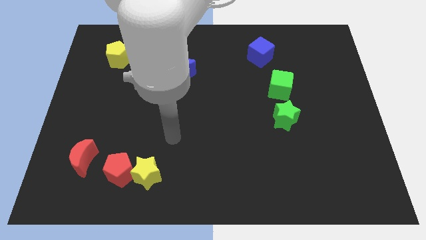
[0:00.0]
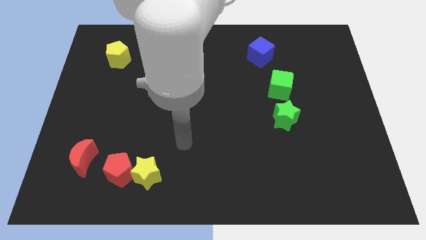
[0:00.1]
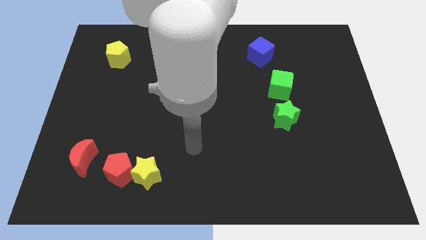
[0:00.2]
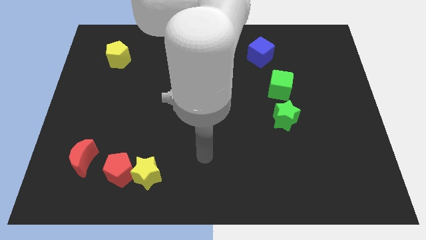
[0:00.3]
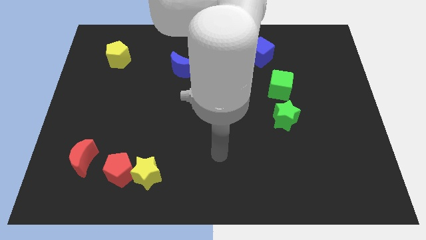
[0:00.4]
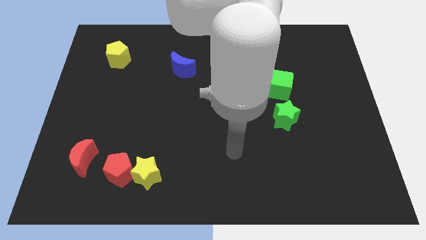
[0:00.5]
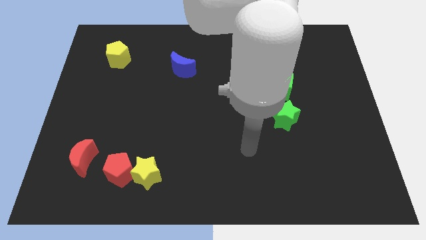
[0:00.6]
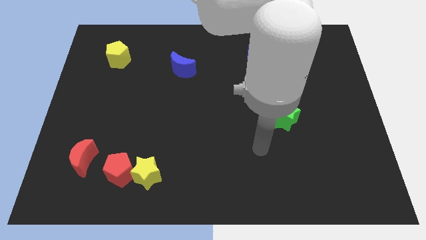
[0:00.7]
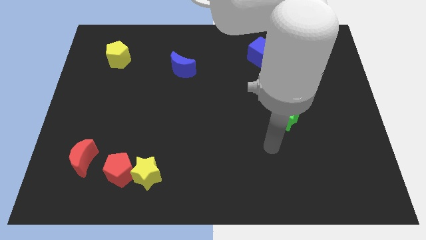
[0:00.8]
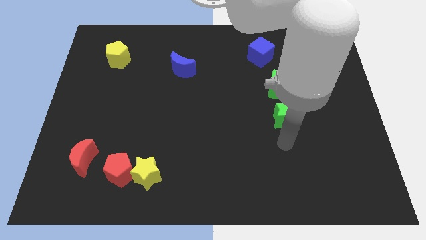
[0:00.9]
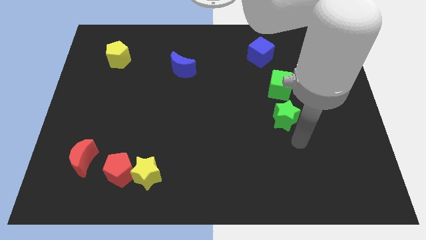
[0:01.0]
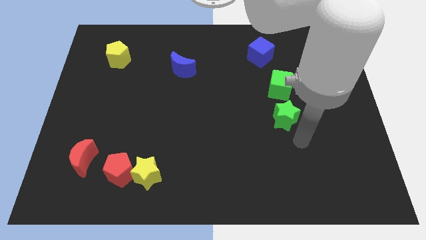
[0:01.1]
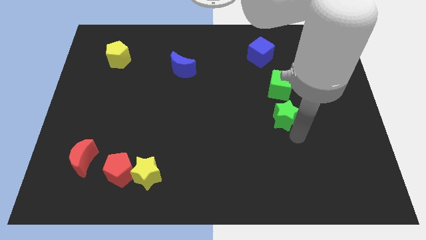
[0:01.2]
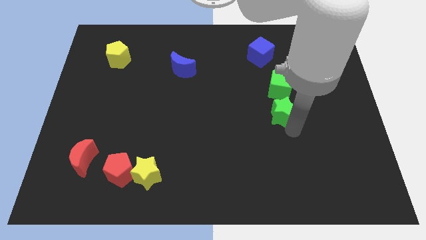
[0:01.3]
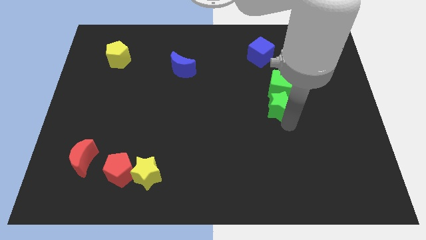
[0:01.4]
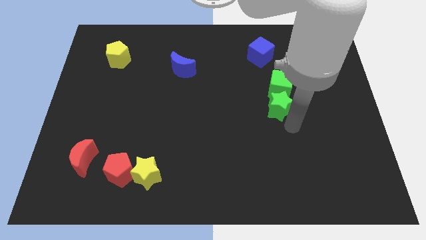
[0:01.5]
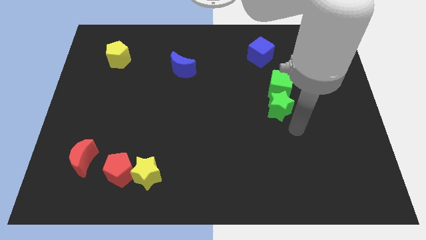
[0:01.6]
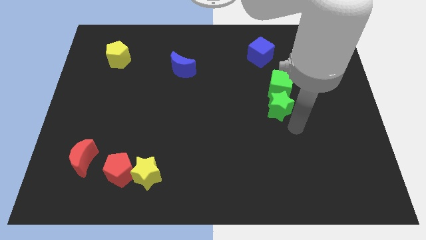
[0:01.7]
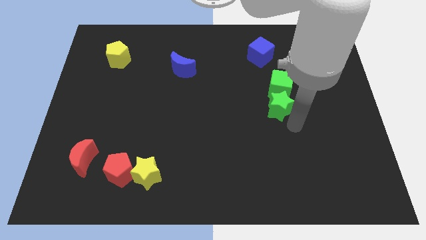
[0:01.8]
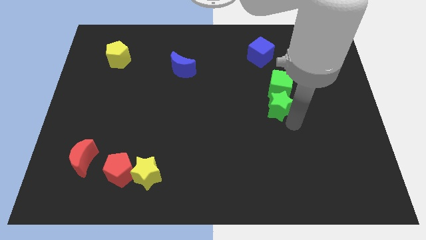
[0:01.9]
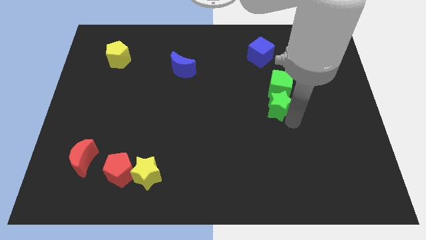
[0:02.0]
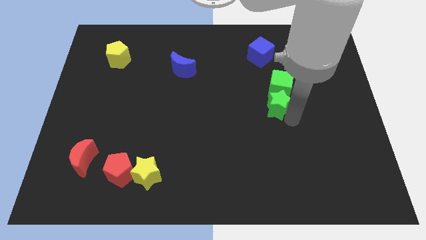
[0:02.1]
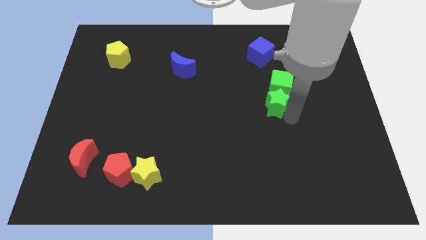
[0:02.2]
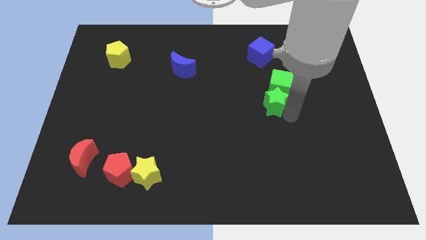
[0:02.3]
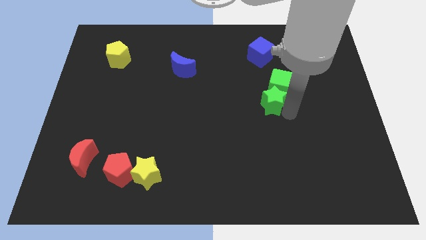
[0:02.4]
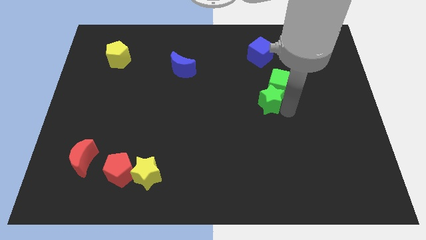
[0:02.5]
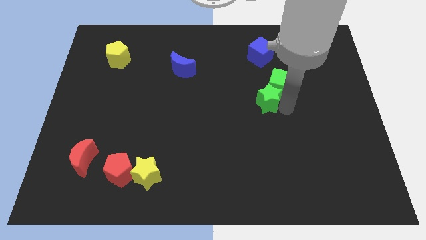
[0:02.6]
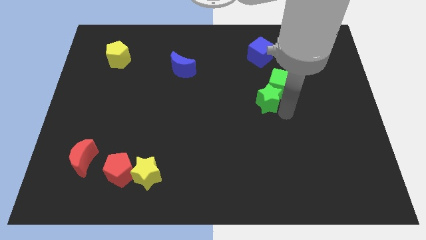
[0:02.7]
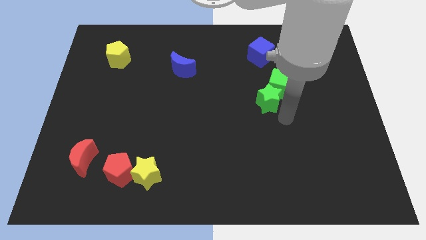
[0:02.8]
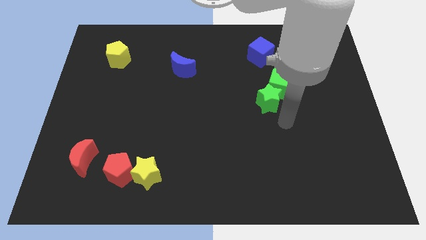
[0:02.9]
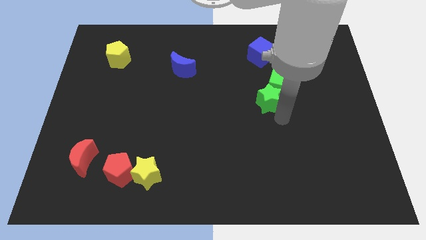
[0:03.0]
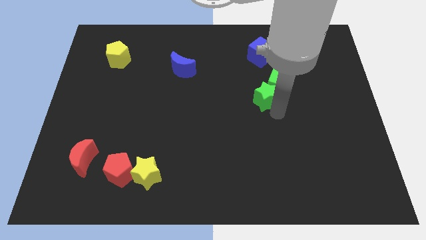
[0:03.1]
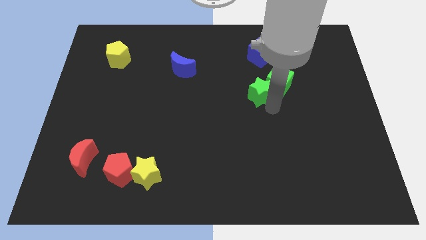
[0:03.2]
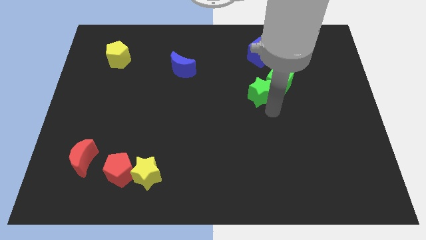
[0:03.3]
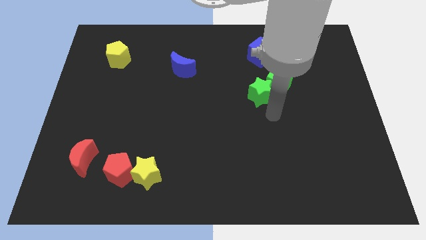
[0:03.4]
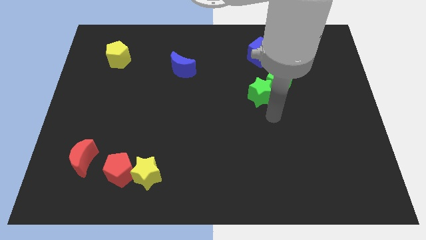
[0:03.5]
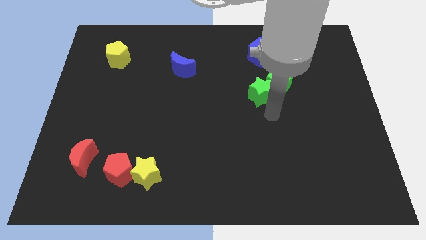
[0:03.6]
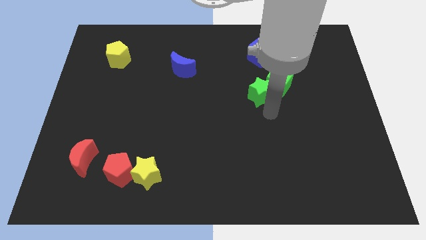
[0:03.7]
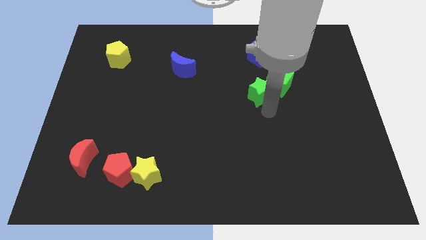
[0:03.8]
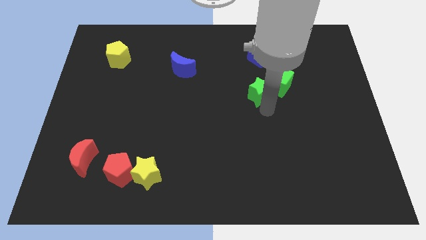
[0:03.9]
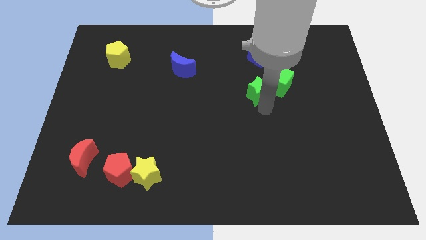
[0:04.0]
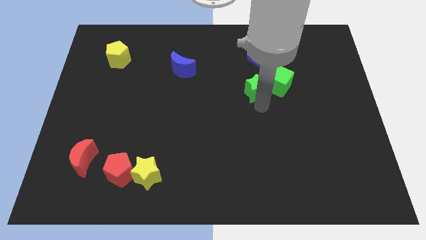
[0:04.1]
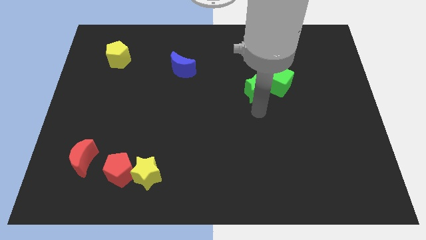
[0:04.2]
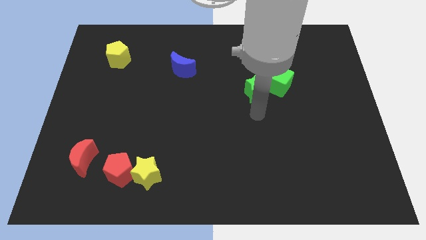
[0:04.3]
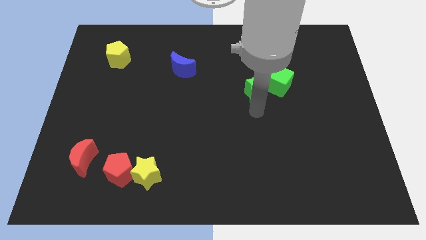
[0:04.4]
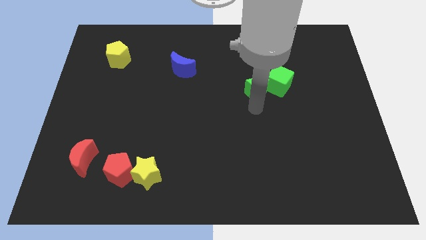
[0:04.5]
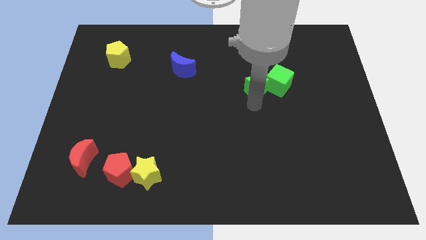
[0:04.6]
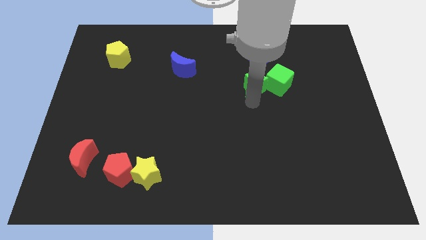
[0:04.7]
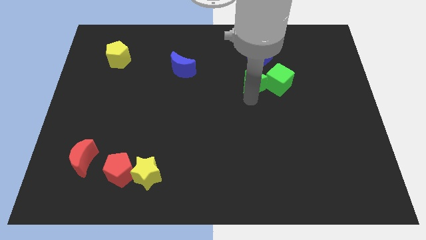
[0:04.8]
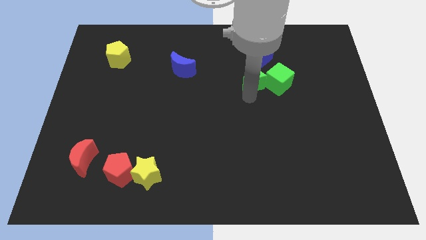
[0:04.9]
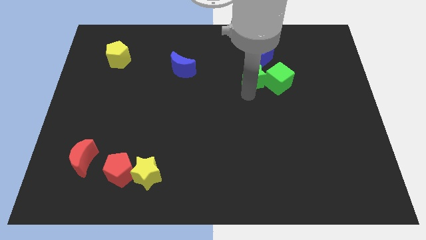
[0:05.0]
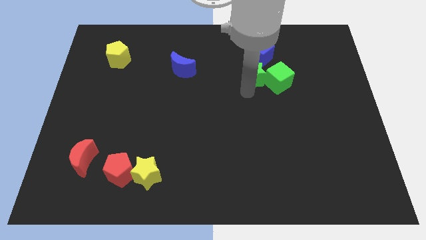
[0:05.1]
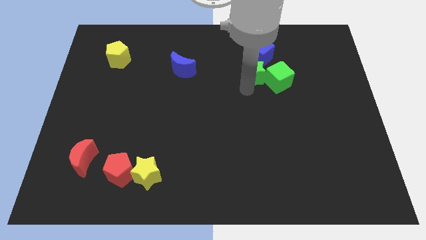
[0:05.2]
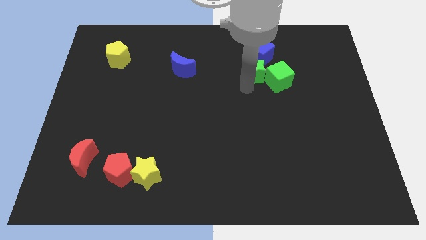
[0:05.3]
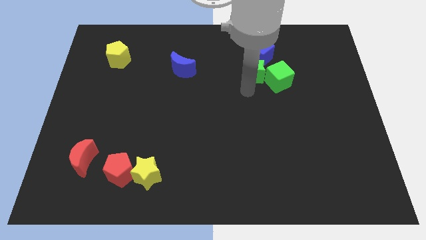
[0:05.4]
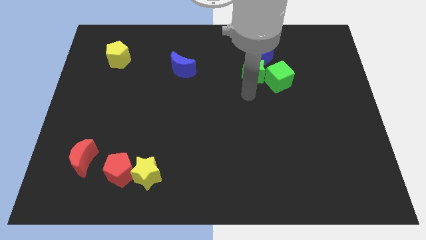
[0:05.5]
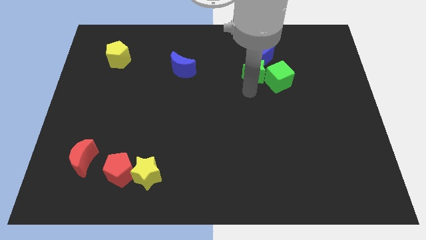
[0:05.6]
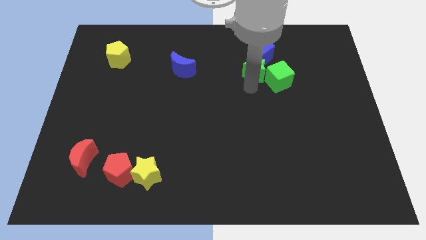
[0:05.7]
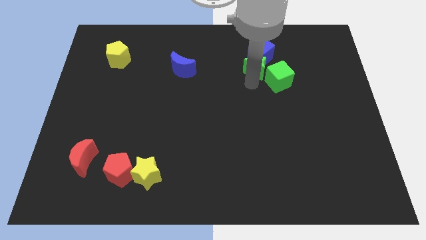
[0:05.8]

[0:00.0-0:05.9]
push the green star to the blue cube
